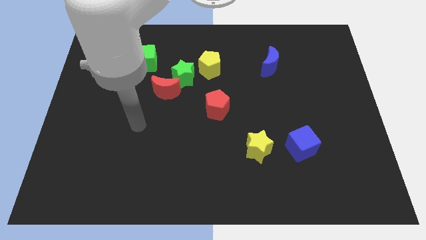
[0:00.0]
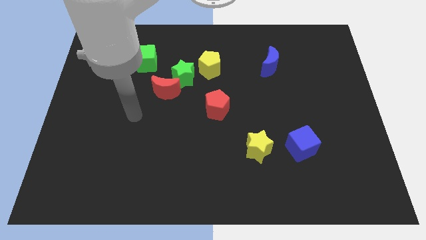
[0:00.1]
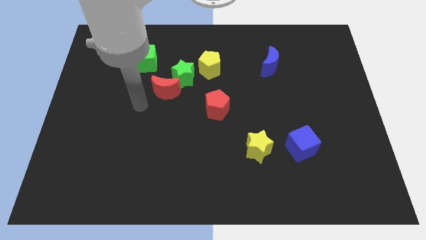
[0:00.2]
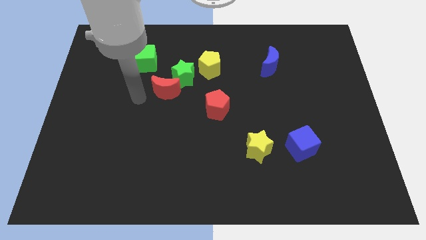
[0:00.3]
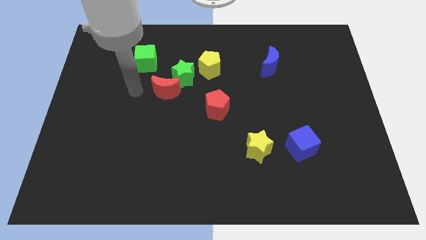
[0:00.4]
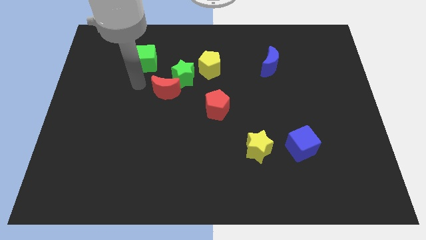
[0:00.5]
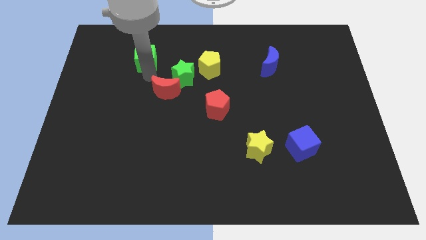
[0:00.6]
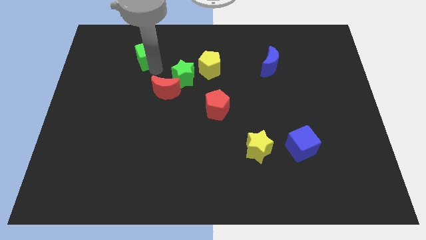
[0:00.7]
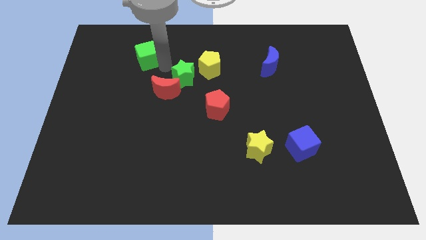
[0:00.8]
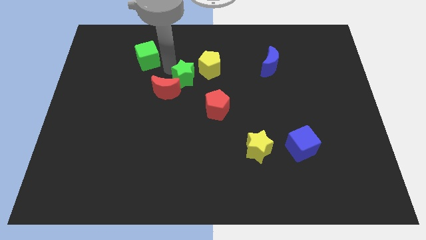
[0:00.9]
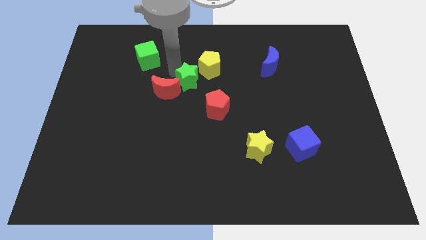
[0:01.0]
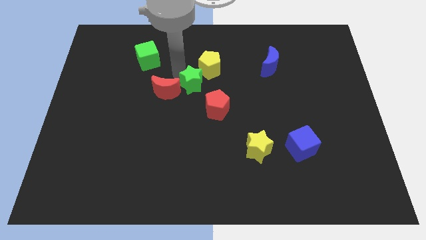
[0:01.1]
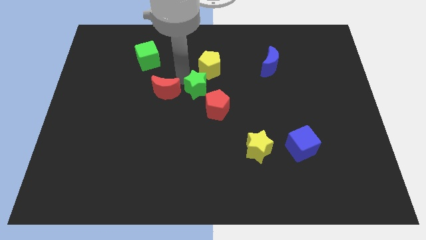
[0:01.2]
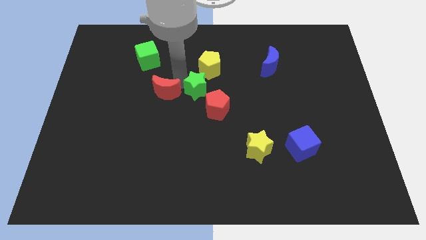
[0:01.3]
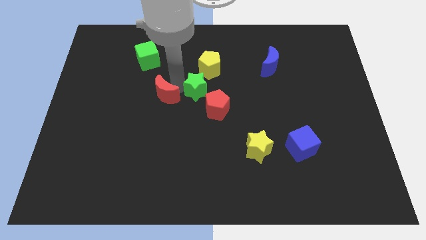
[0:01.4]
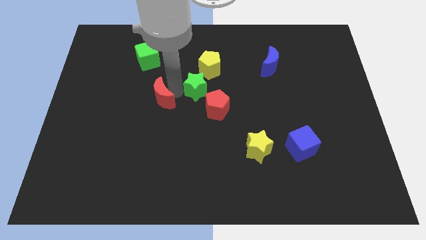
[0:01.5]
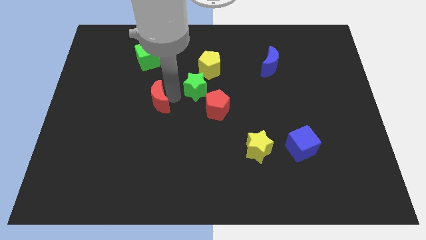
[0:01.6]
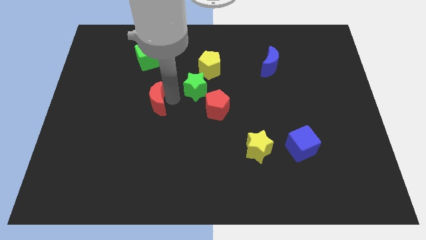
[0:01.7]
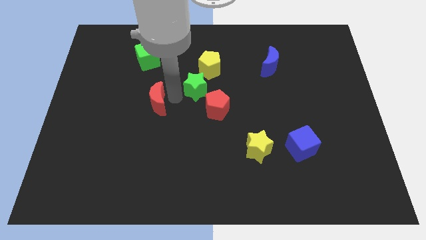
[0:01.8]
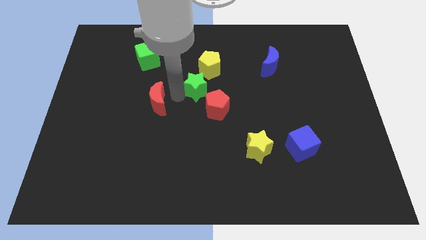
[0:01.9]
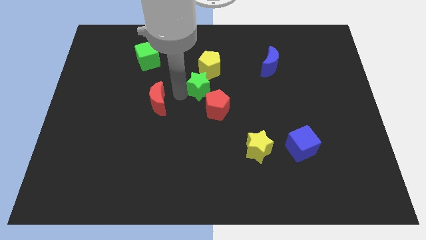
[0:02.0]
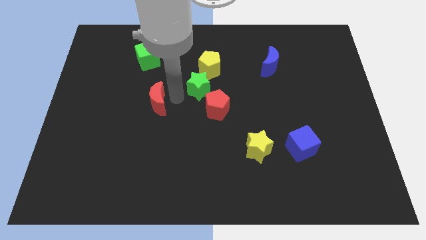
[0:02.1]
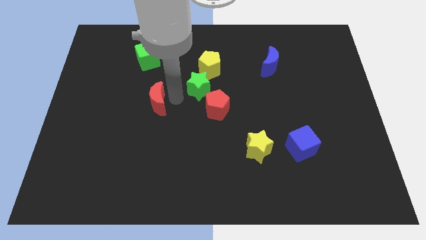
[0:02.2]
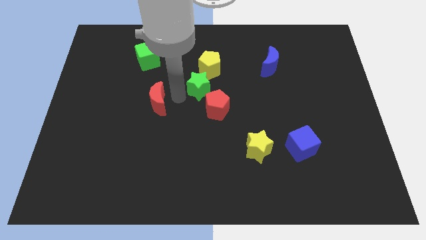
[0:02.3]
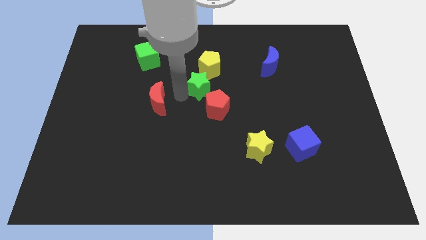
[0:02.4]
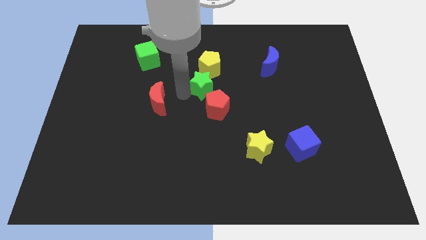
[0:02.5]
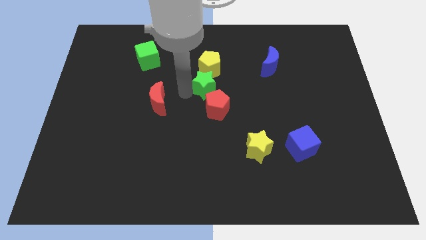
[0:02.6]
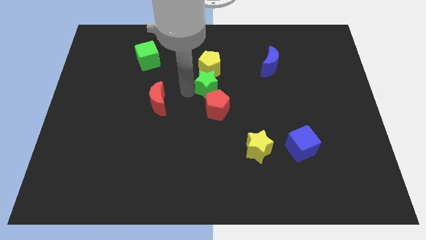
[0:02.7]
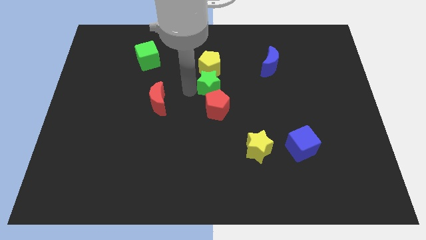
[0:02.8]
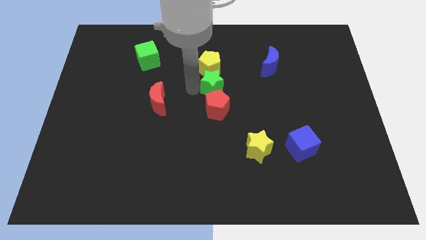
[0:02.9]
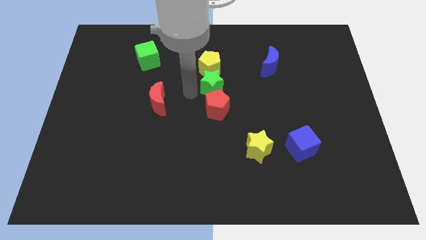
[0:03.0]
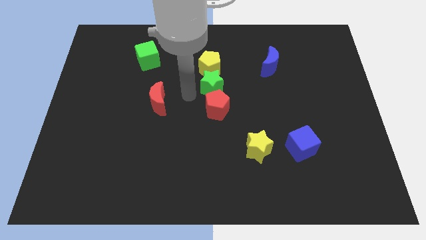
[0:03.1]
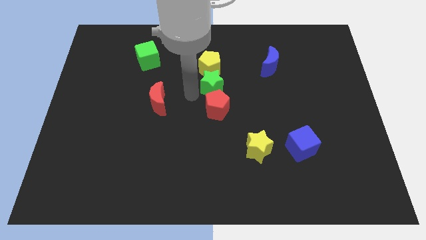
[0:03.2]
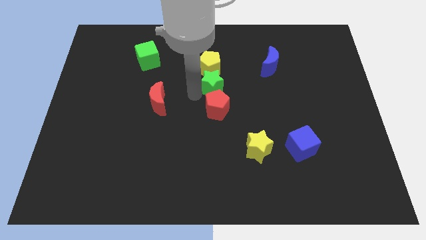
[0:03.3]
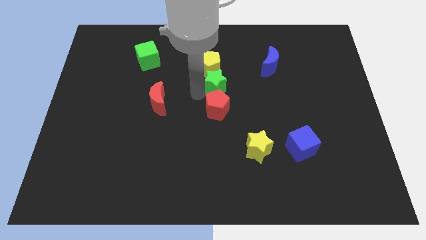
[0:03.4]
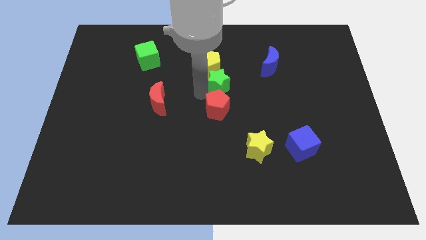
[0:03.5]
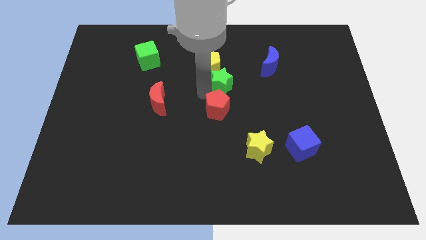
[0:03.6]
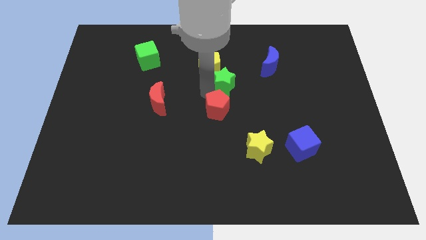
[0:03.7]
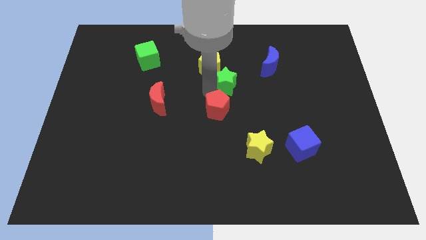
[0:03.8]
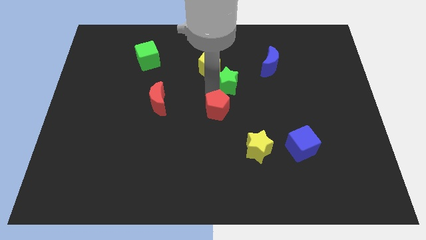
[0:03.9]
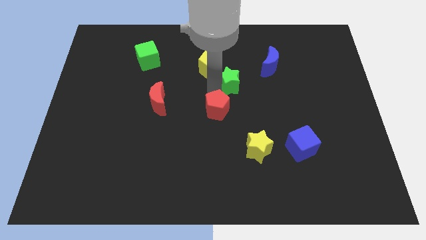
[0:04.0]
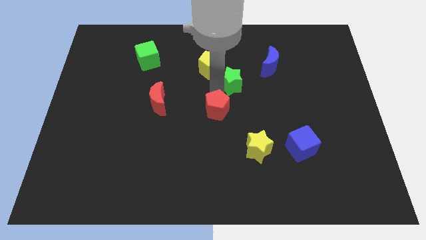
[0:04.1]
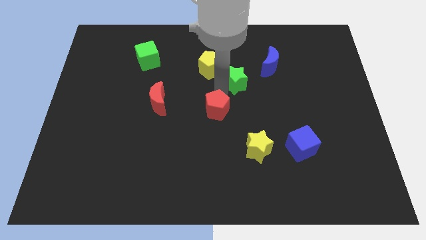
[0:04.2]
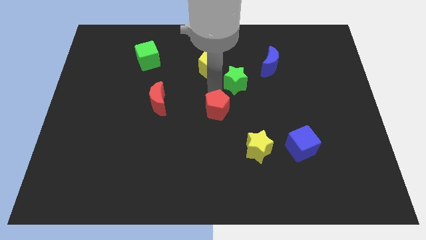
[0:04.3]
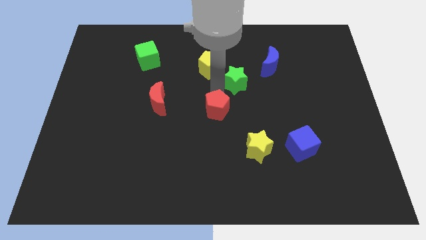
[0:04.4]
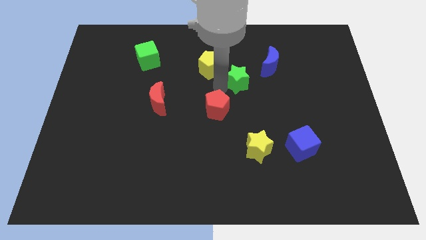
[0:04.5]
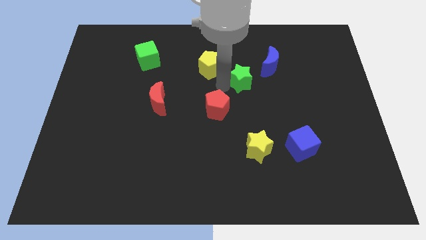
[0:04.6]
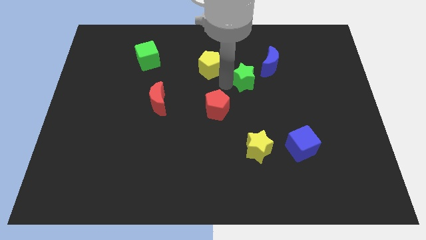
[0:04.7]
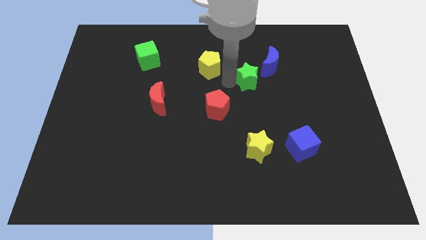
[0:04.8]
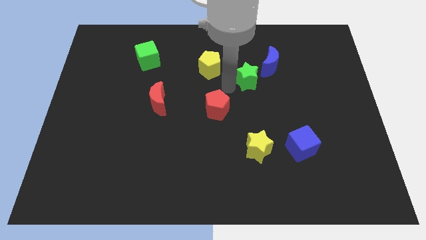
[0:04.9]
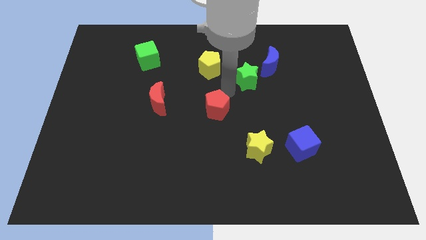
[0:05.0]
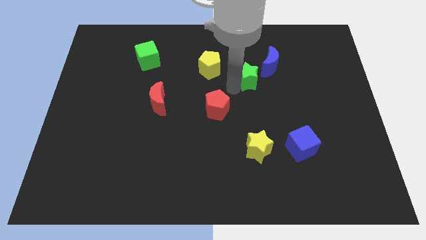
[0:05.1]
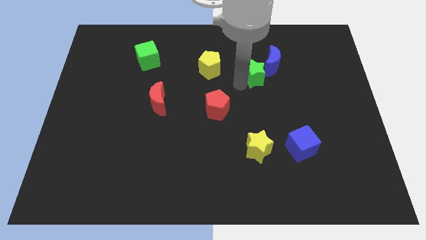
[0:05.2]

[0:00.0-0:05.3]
move the green star to the blue moon

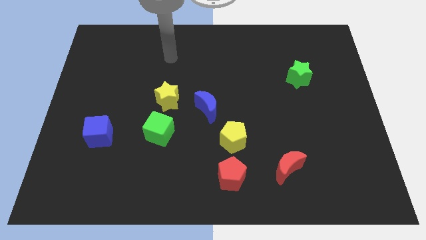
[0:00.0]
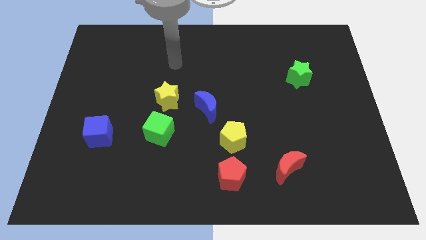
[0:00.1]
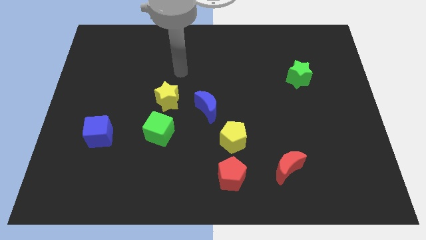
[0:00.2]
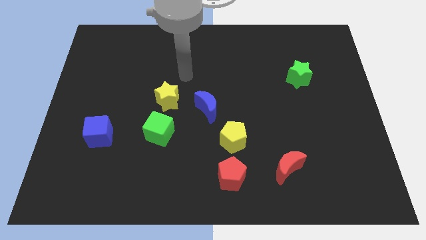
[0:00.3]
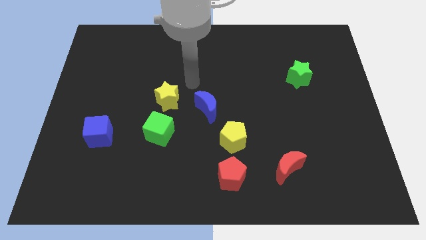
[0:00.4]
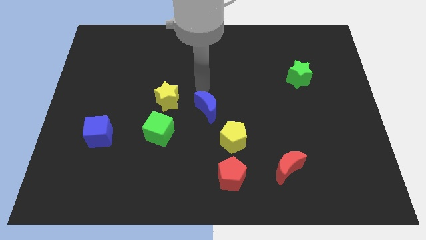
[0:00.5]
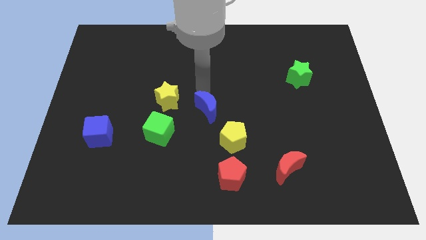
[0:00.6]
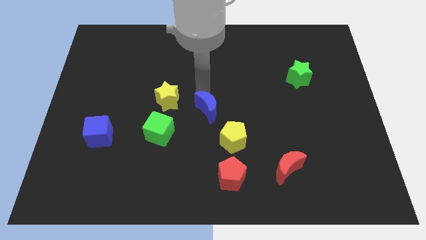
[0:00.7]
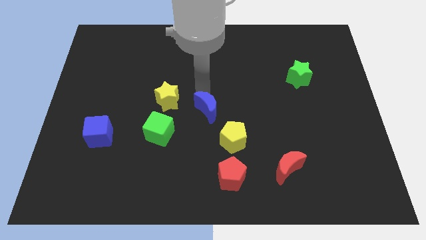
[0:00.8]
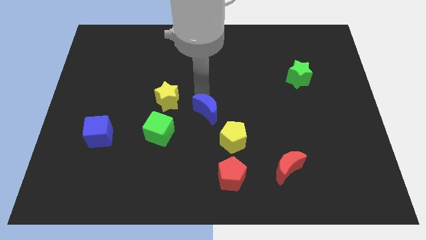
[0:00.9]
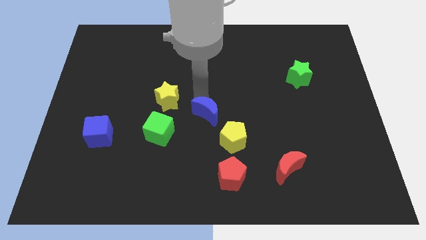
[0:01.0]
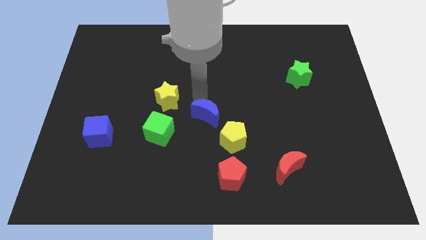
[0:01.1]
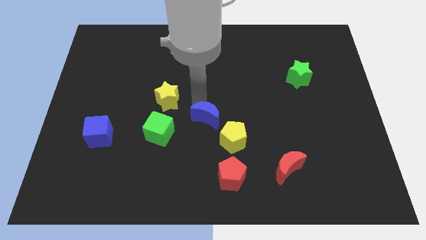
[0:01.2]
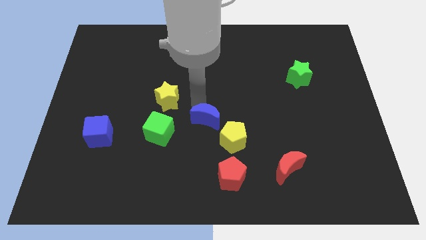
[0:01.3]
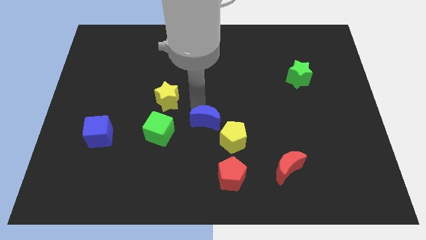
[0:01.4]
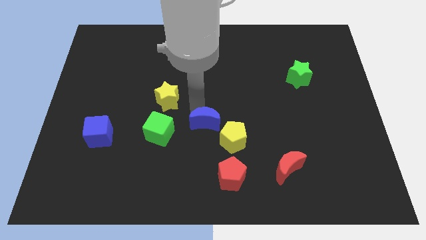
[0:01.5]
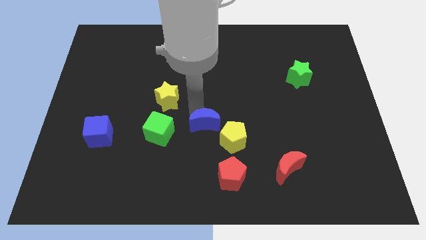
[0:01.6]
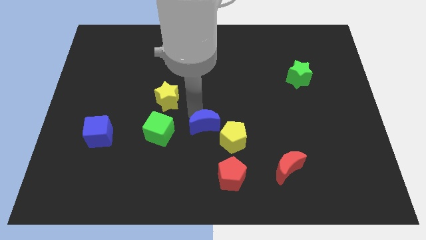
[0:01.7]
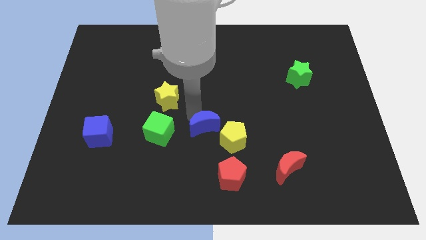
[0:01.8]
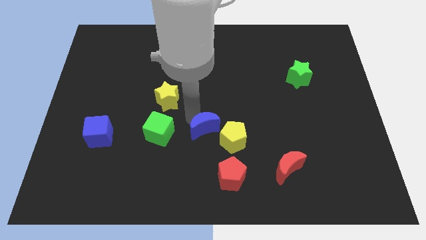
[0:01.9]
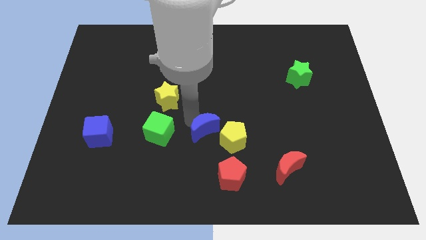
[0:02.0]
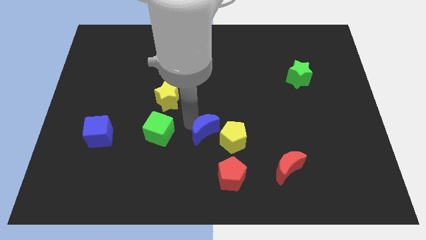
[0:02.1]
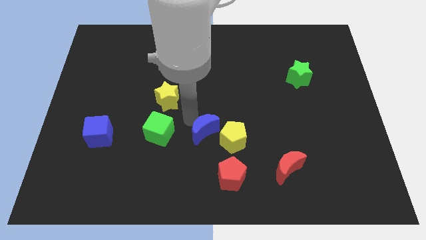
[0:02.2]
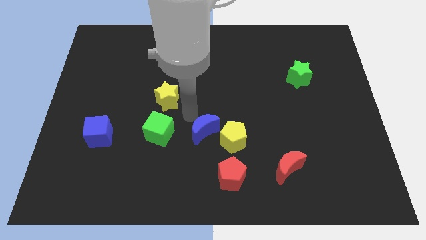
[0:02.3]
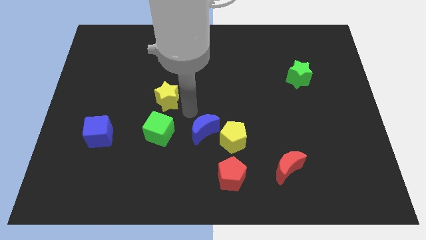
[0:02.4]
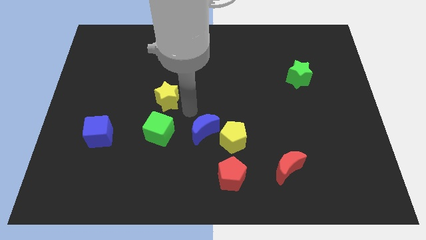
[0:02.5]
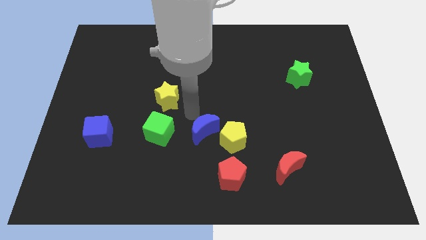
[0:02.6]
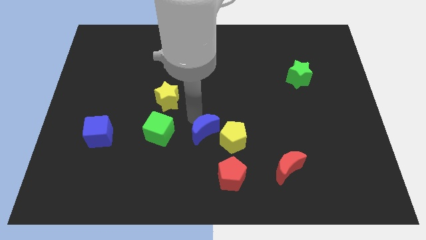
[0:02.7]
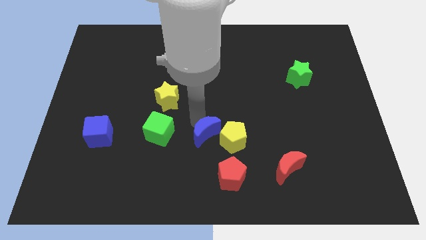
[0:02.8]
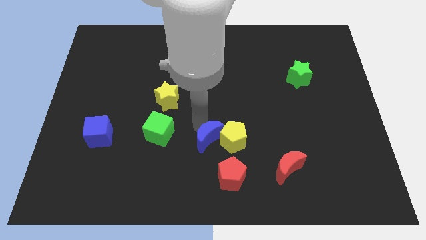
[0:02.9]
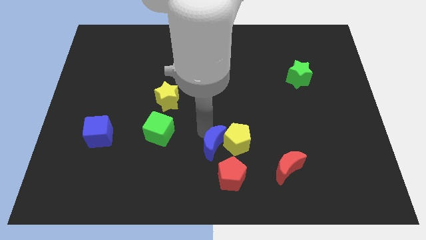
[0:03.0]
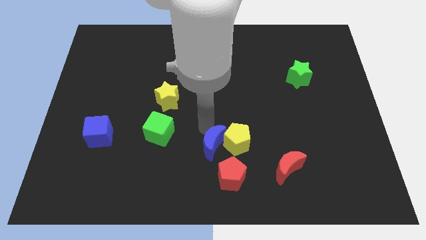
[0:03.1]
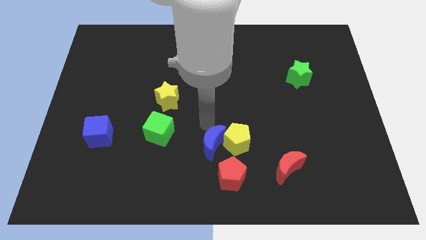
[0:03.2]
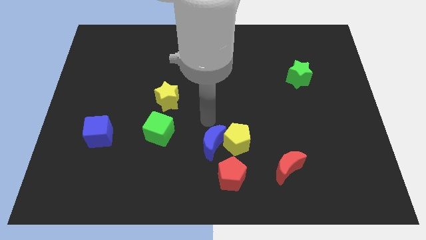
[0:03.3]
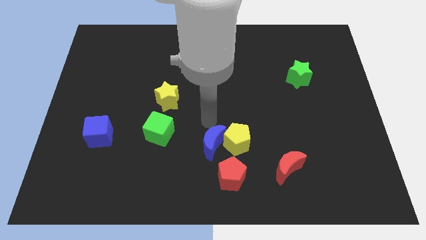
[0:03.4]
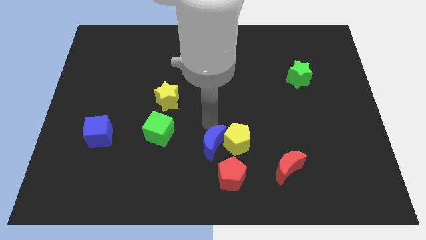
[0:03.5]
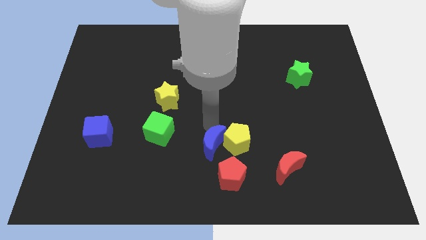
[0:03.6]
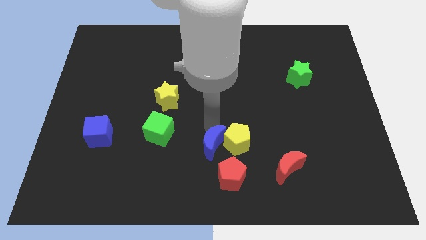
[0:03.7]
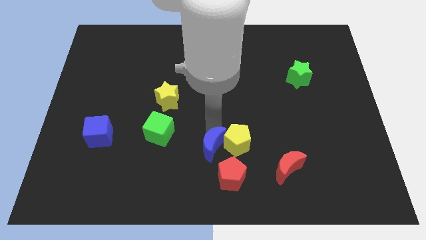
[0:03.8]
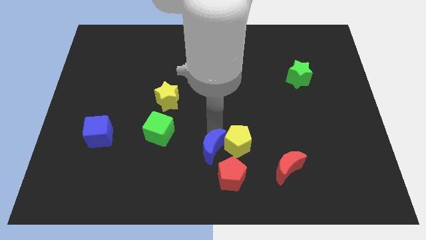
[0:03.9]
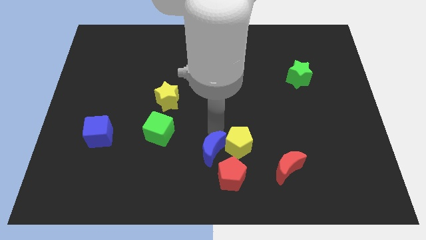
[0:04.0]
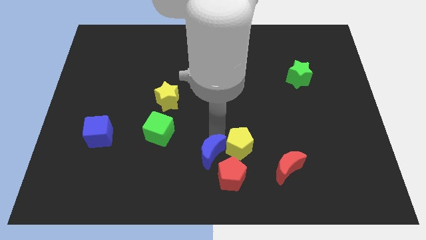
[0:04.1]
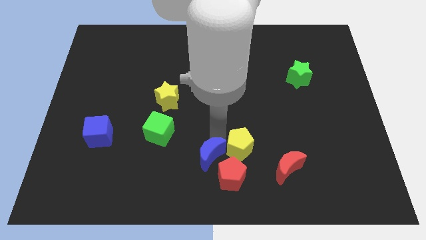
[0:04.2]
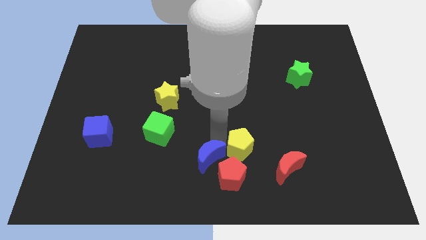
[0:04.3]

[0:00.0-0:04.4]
put the blue moon next to the red pentagon
